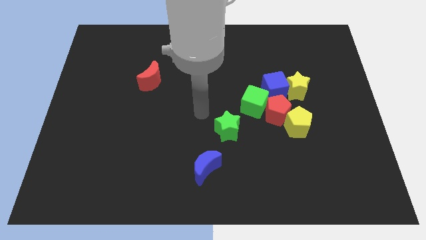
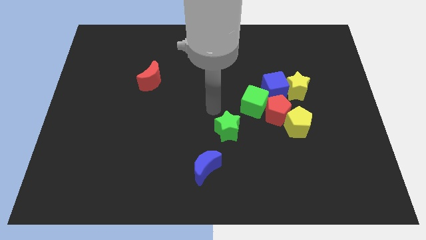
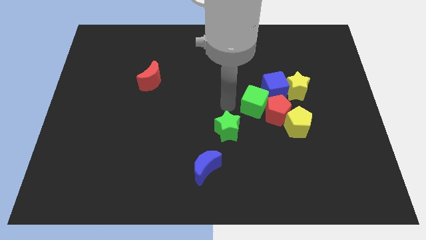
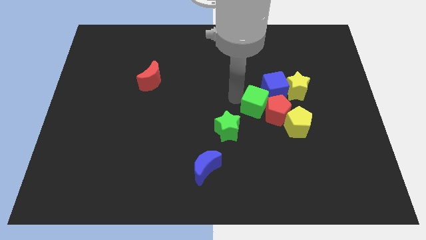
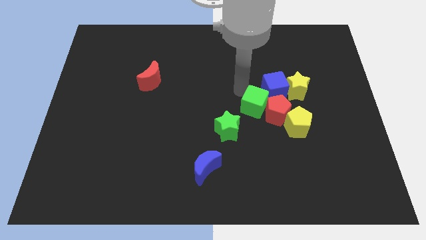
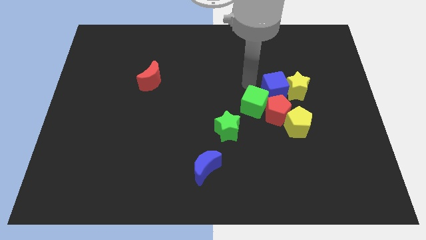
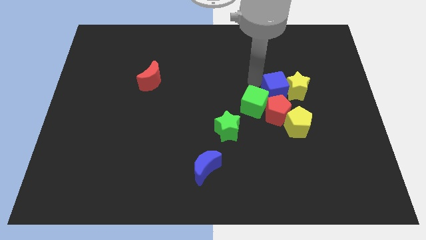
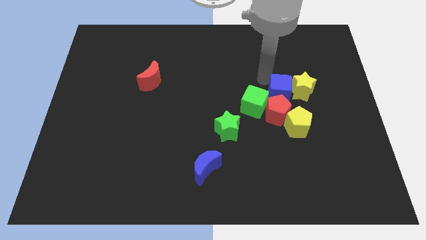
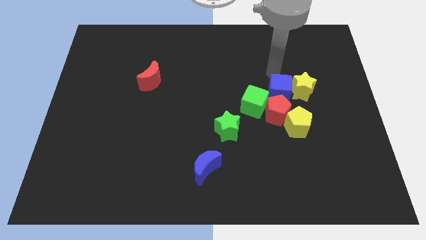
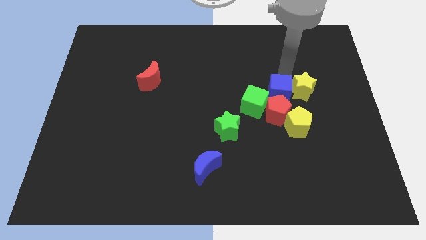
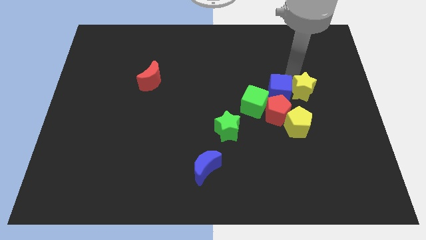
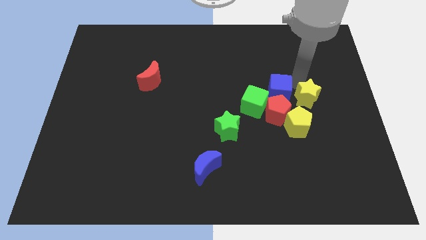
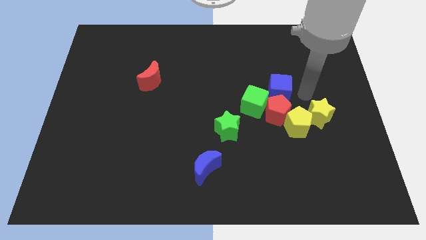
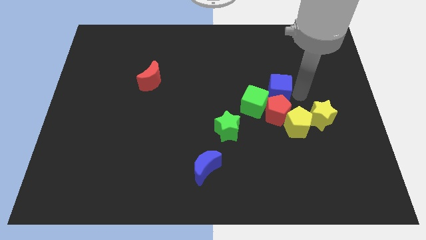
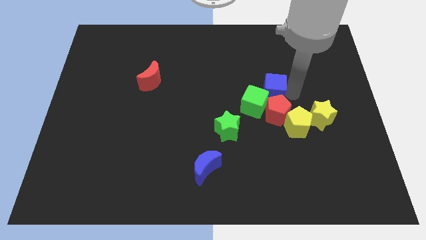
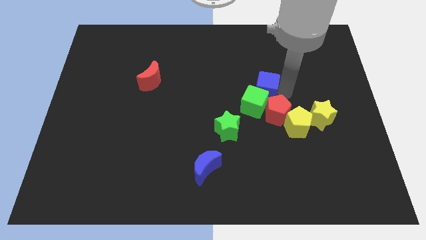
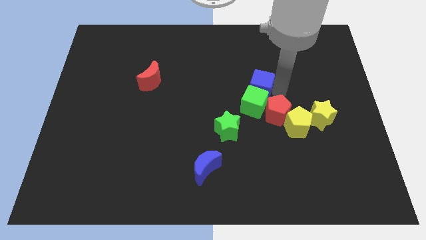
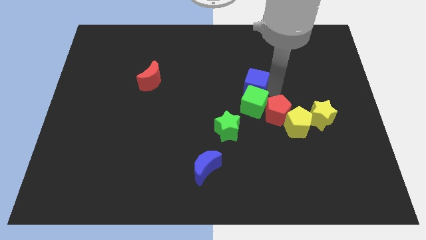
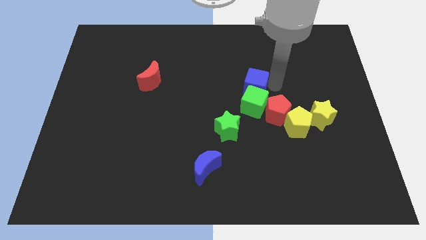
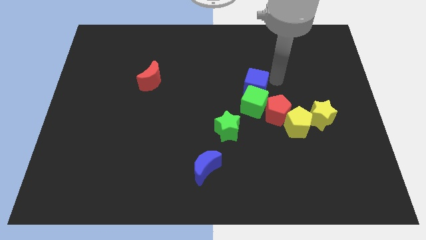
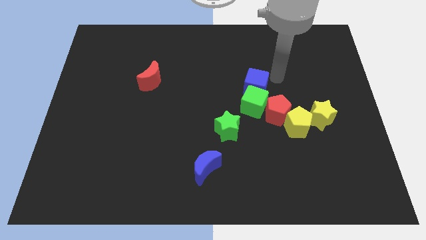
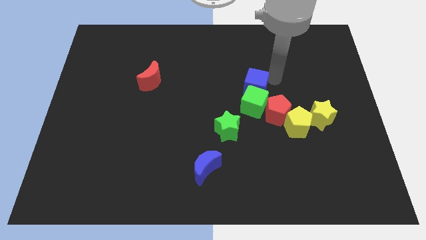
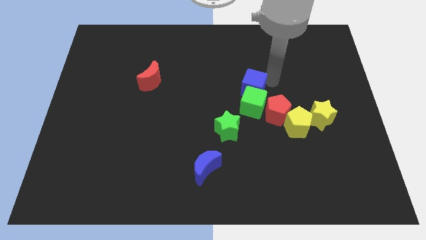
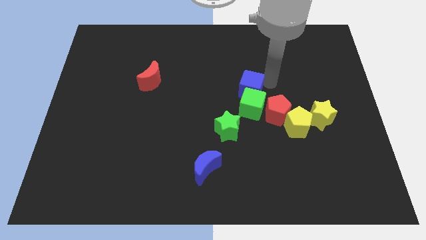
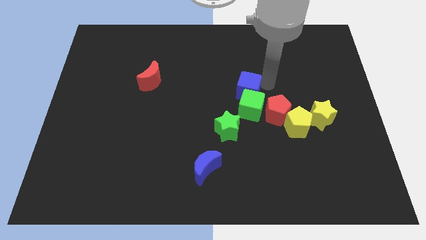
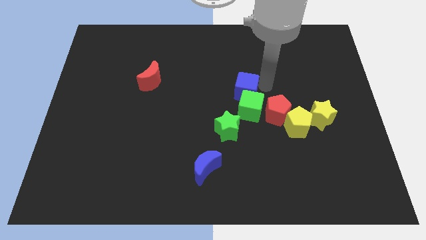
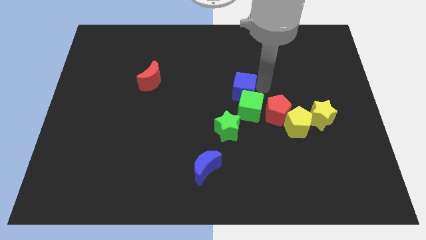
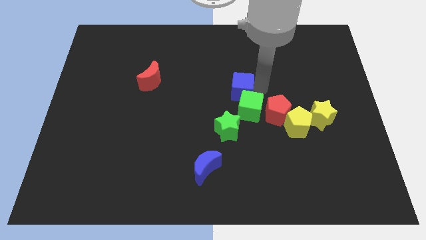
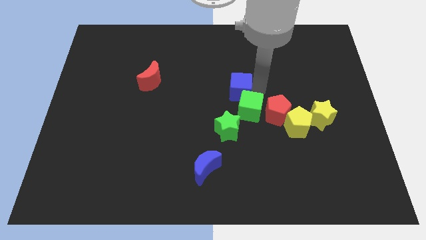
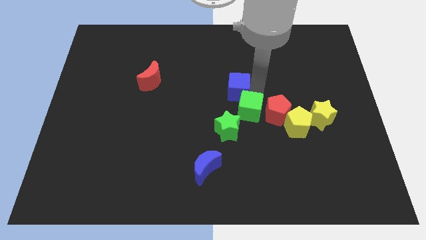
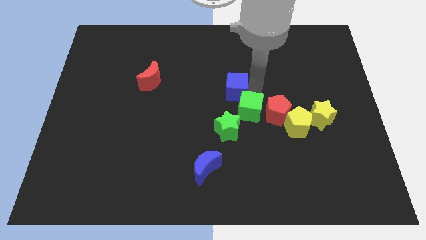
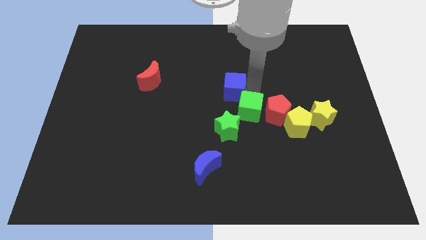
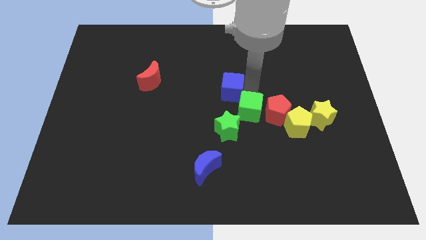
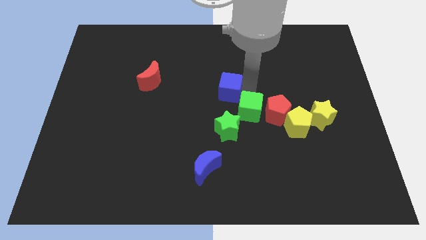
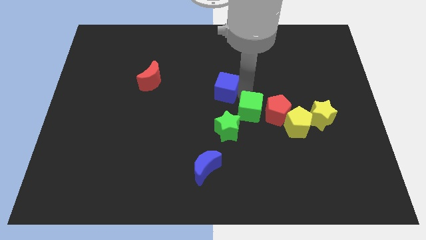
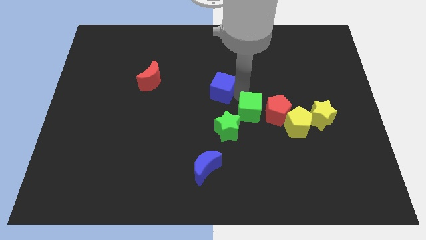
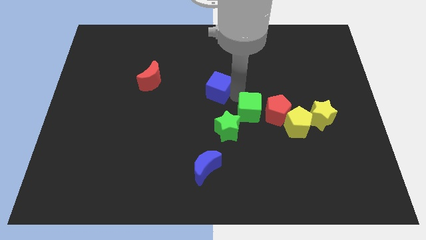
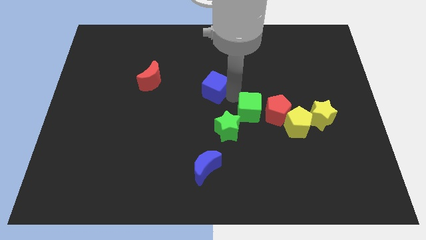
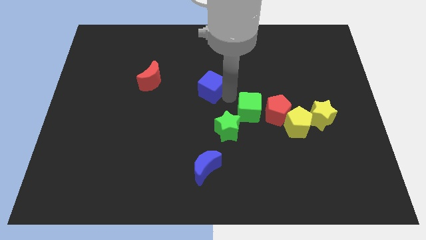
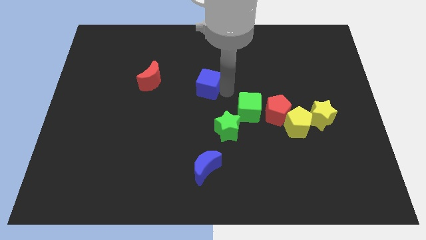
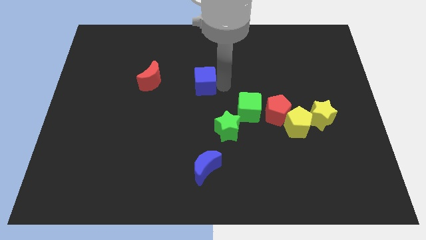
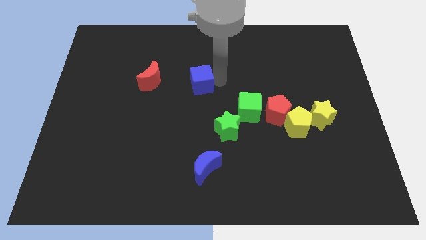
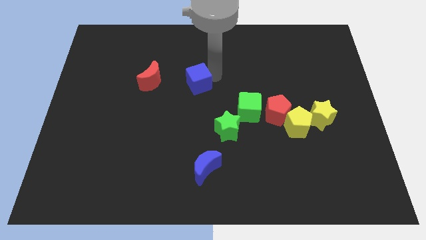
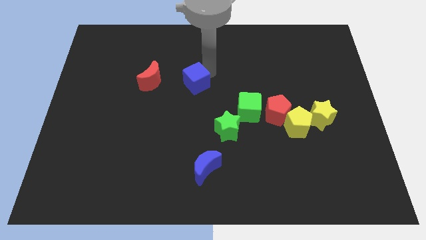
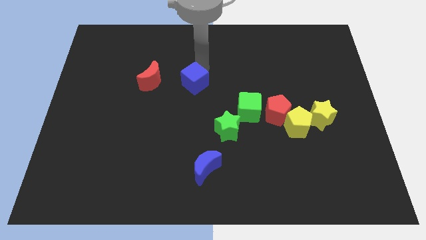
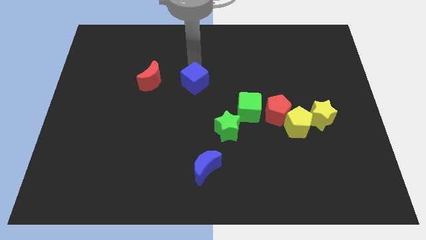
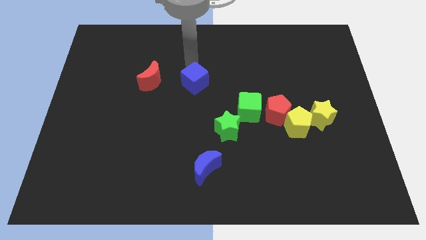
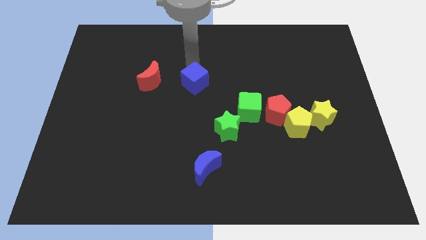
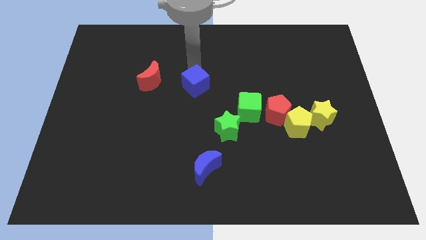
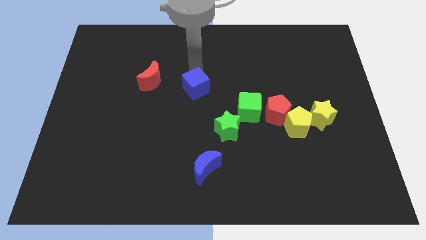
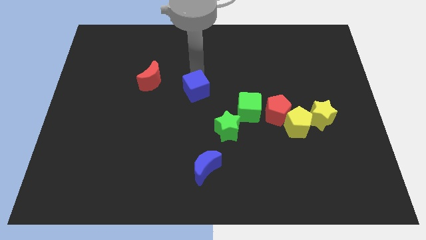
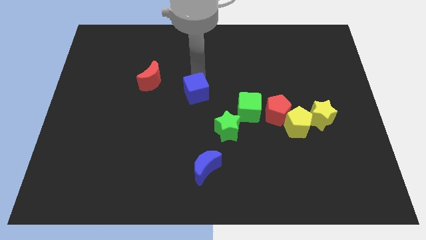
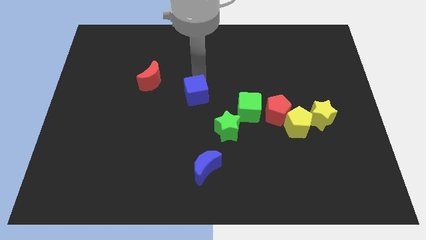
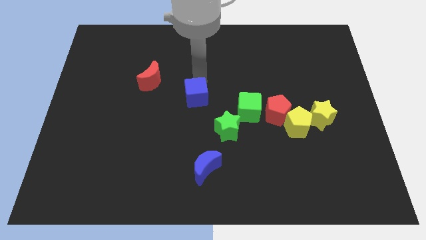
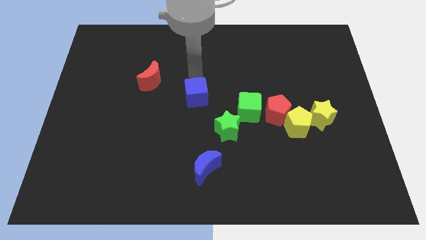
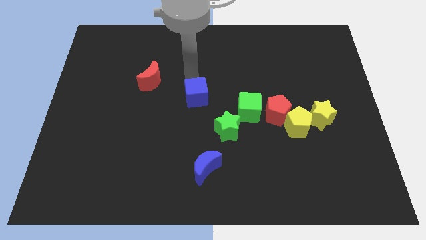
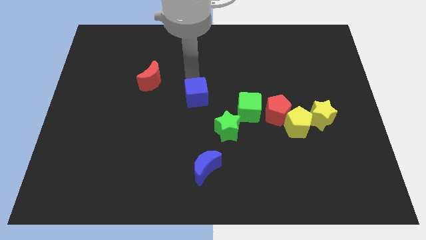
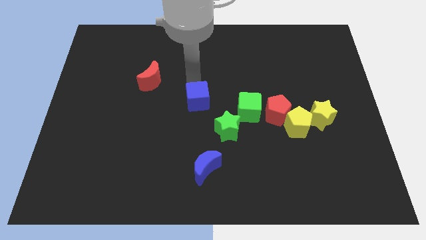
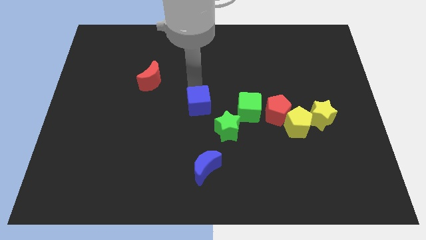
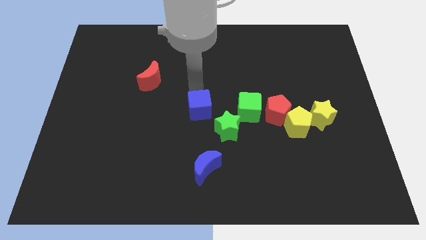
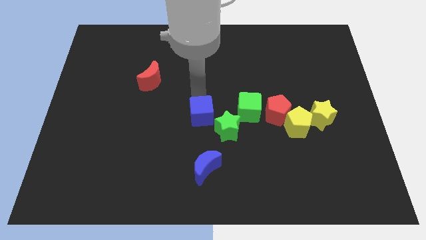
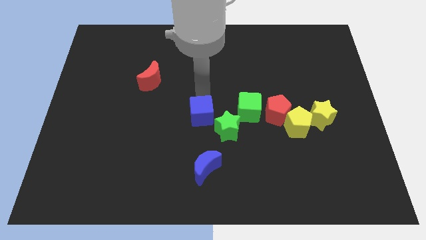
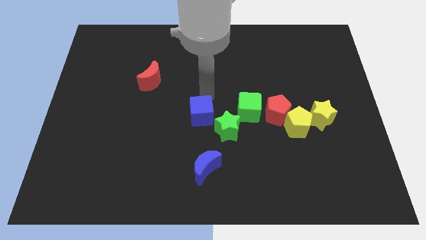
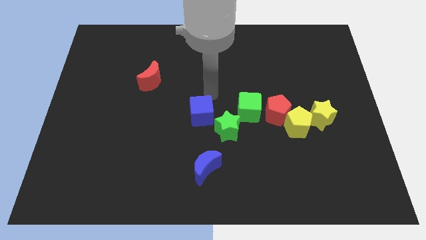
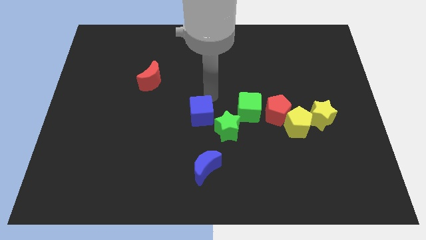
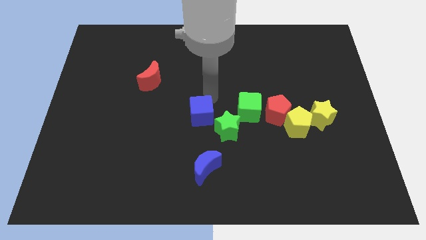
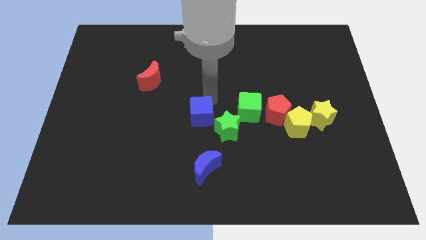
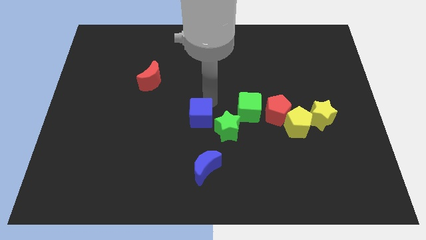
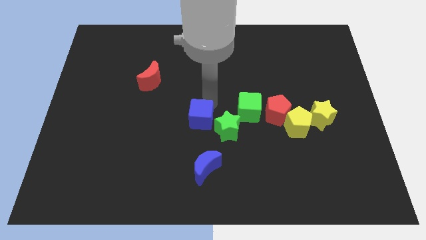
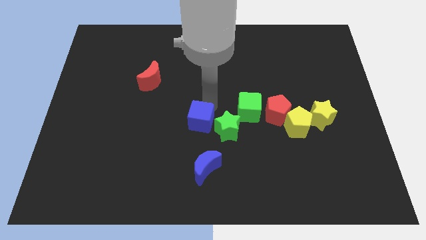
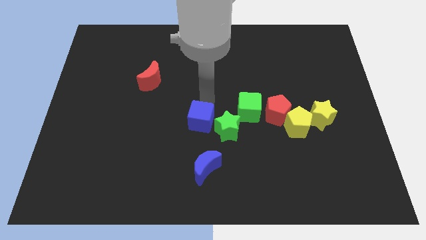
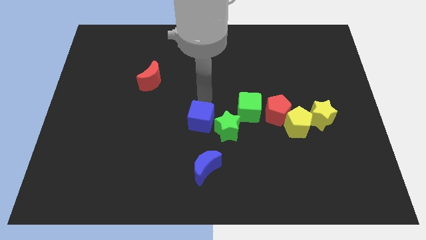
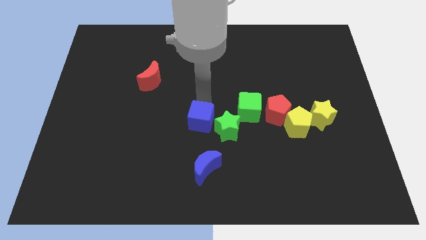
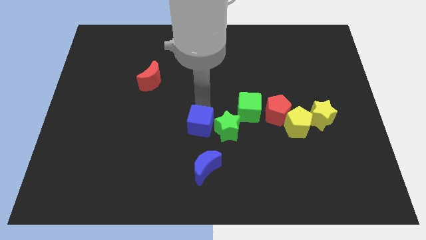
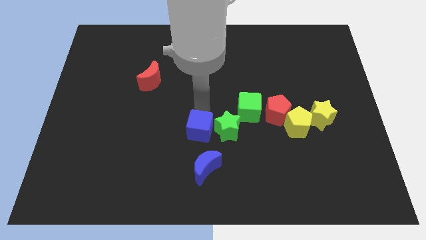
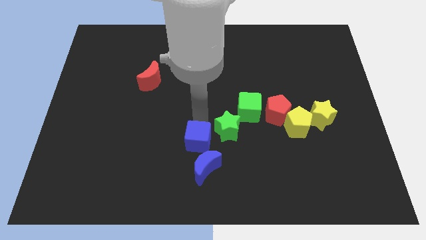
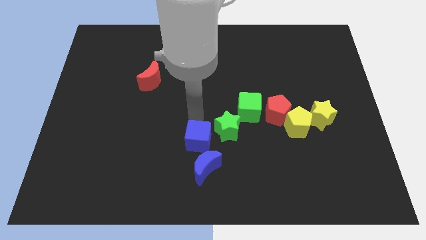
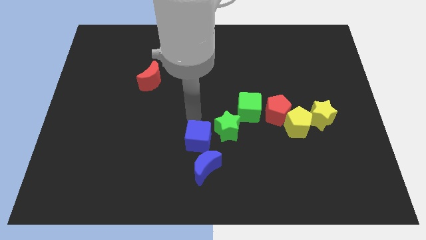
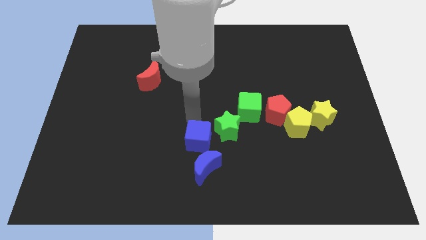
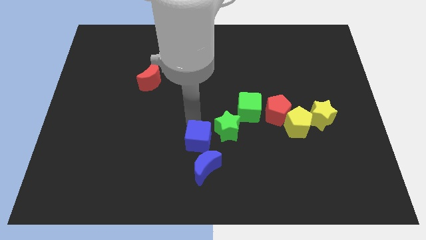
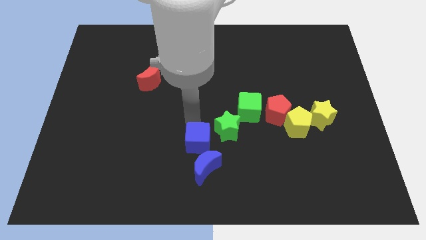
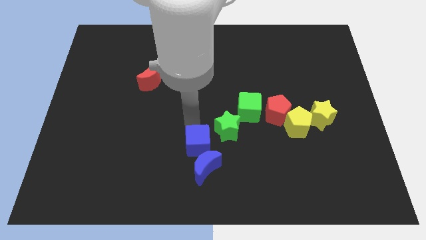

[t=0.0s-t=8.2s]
push the blue cube towards the blue moon
